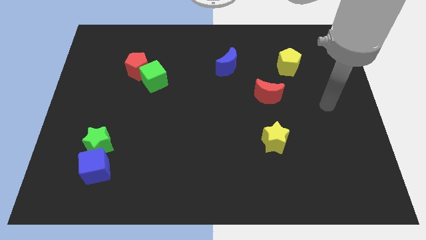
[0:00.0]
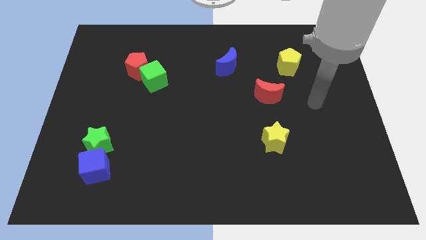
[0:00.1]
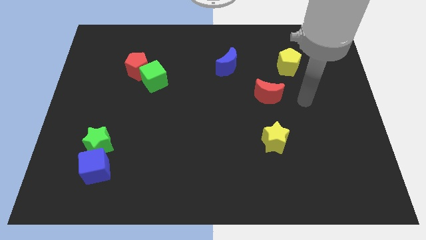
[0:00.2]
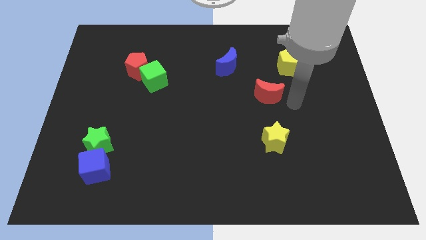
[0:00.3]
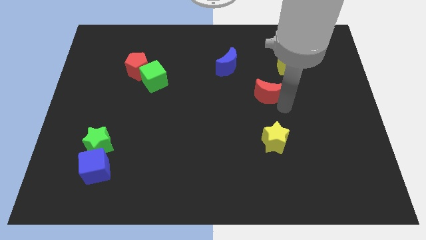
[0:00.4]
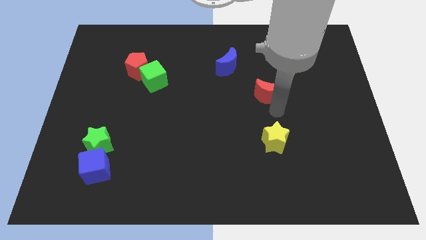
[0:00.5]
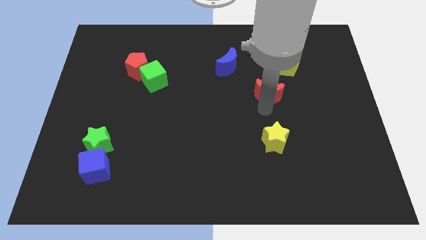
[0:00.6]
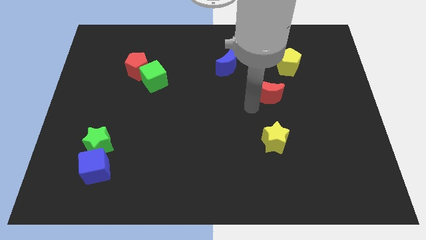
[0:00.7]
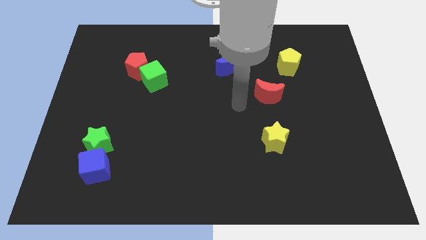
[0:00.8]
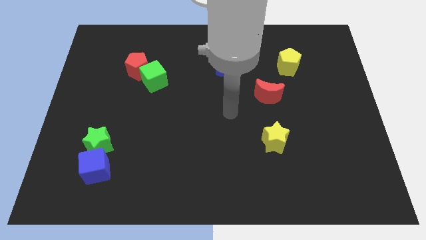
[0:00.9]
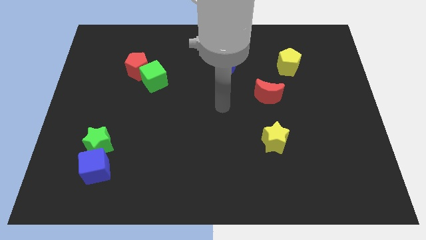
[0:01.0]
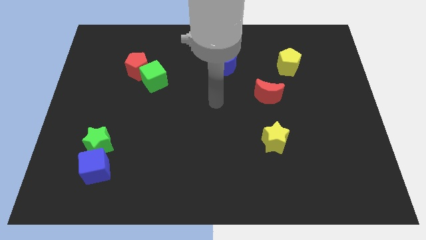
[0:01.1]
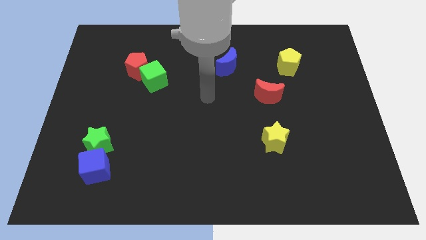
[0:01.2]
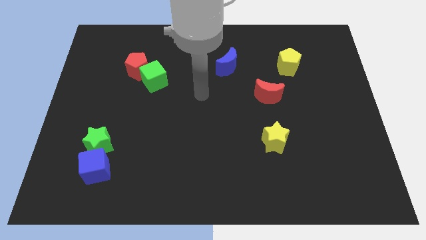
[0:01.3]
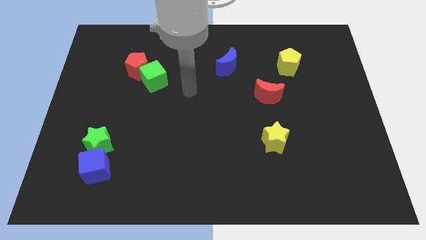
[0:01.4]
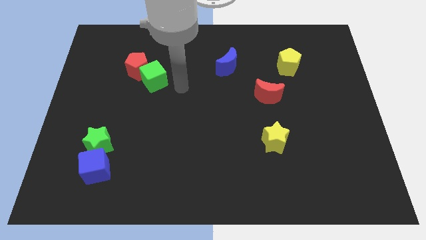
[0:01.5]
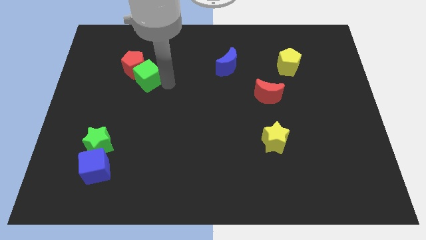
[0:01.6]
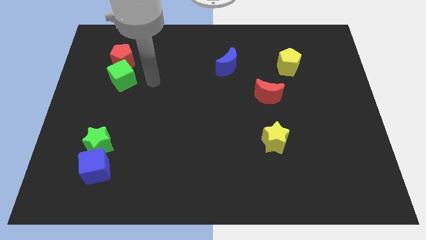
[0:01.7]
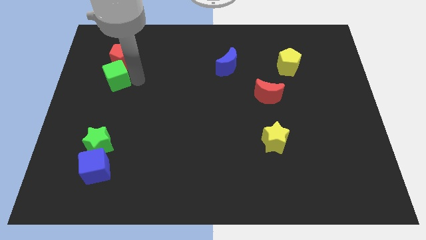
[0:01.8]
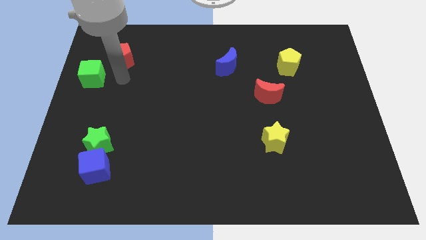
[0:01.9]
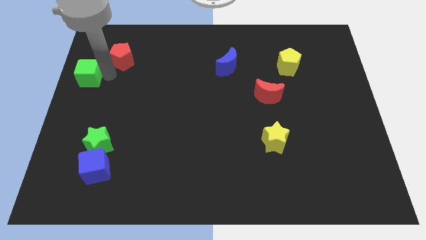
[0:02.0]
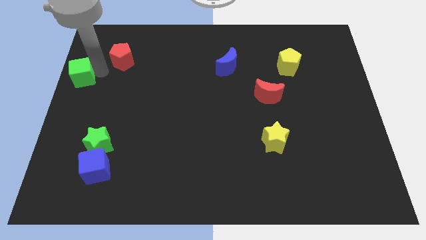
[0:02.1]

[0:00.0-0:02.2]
move the red pentagon away from the green cube

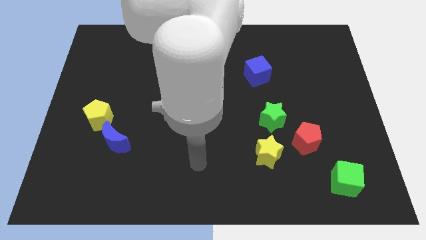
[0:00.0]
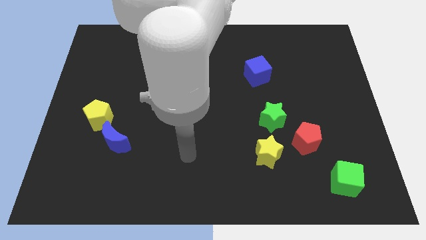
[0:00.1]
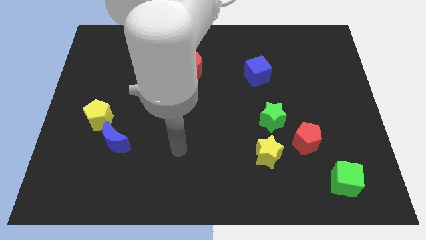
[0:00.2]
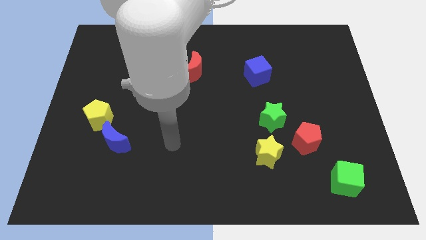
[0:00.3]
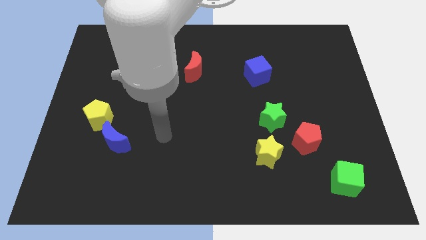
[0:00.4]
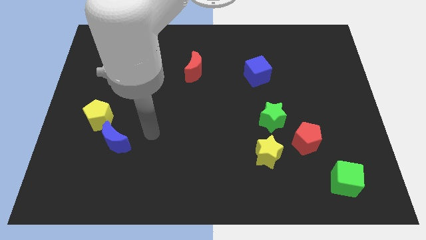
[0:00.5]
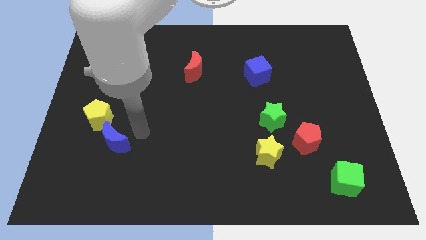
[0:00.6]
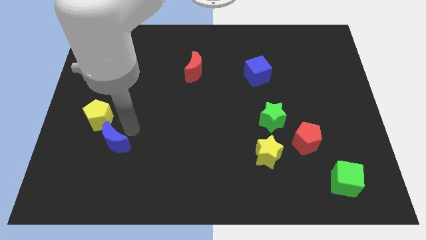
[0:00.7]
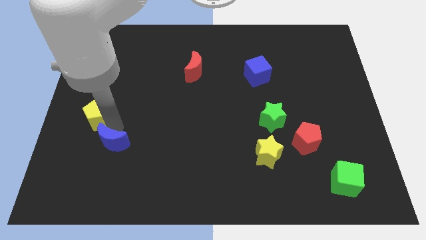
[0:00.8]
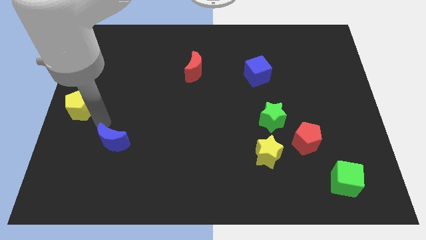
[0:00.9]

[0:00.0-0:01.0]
pull the blue moon apart from the yellow pentagon

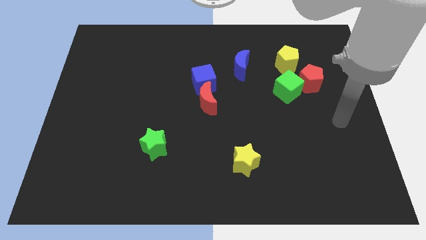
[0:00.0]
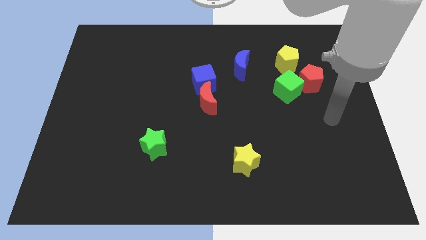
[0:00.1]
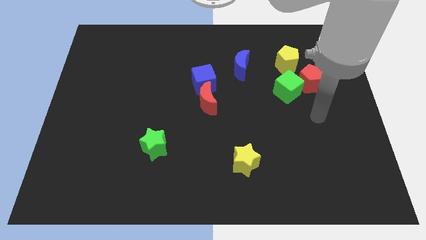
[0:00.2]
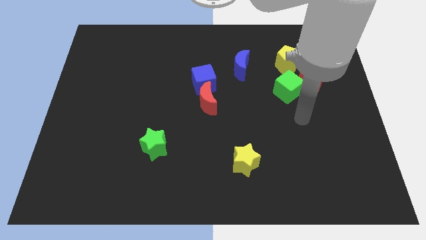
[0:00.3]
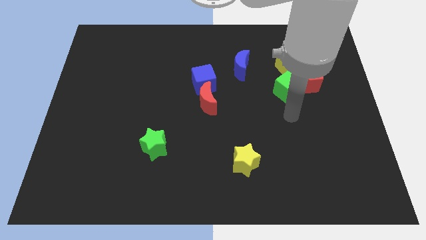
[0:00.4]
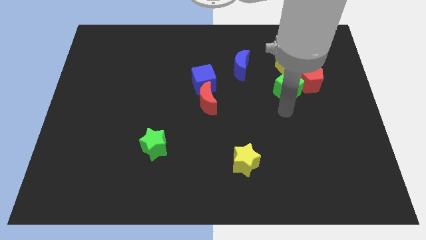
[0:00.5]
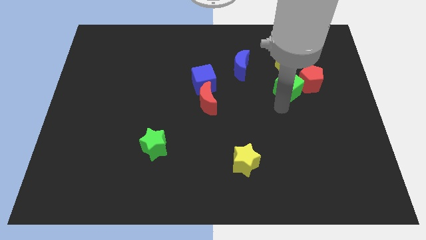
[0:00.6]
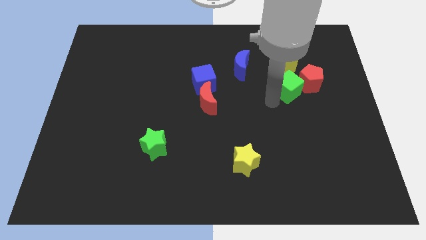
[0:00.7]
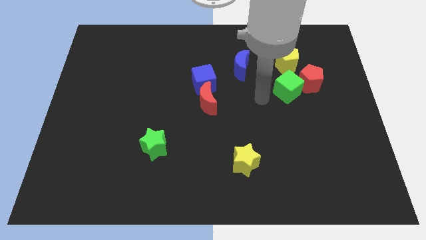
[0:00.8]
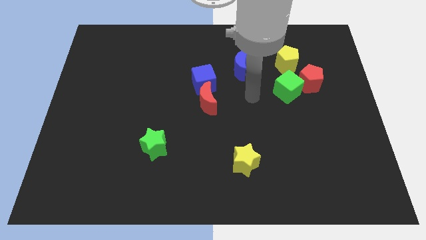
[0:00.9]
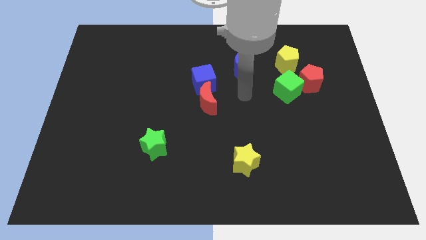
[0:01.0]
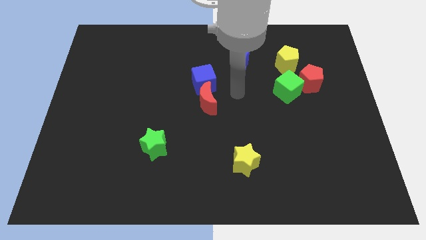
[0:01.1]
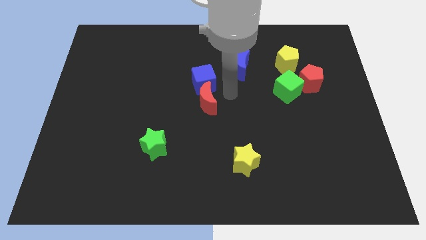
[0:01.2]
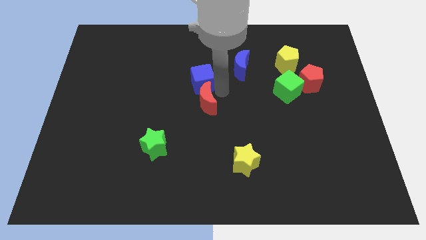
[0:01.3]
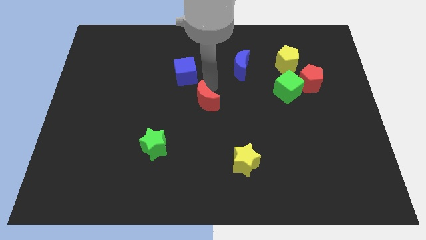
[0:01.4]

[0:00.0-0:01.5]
separate the red moon from the blue cube

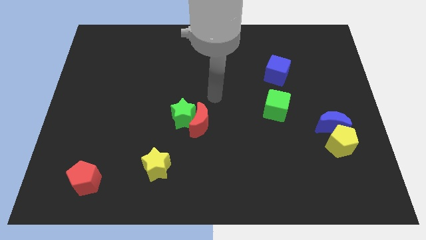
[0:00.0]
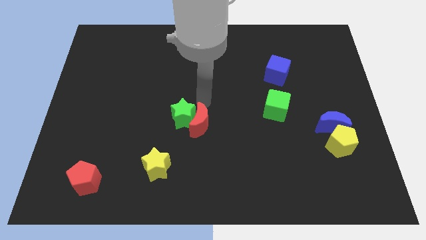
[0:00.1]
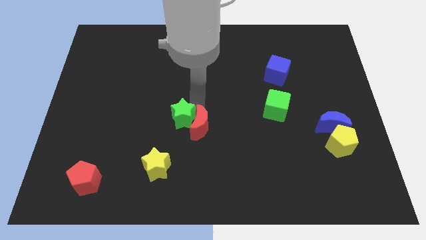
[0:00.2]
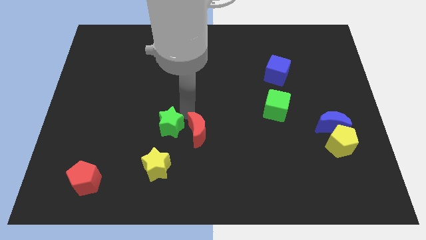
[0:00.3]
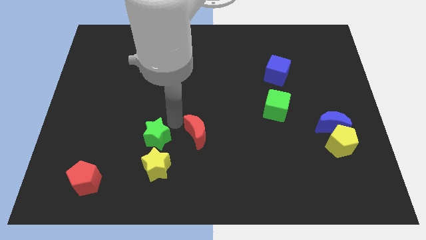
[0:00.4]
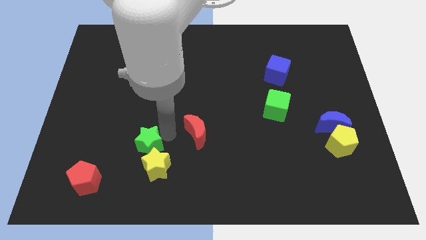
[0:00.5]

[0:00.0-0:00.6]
separate the red moon from the green star

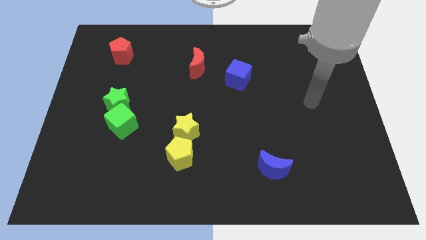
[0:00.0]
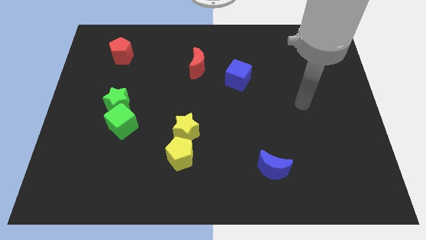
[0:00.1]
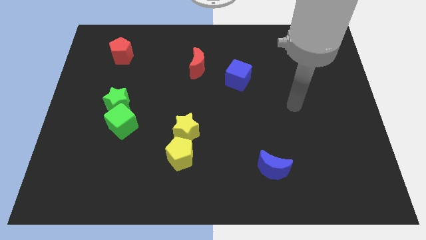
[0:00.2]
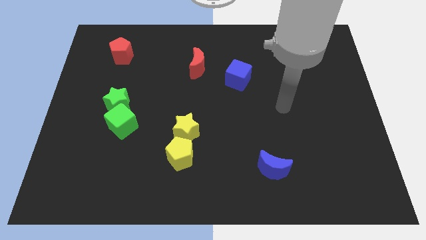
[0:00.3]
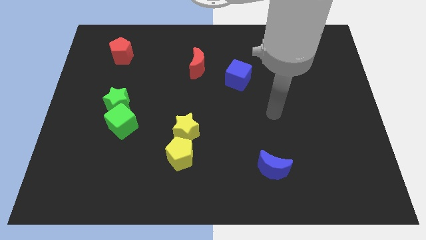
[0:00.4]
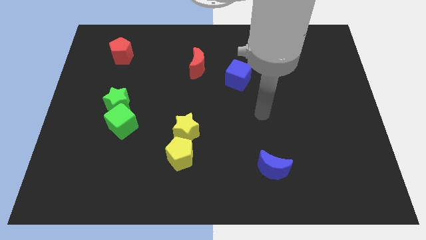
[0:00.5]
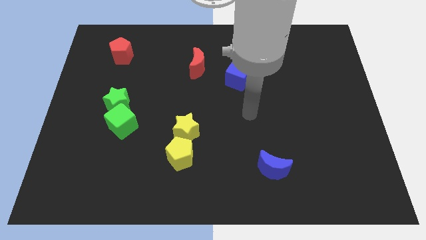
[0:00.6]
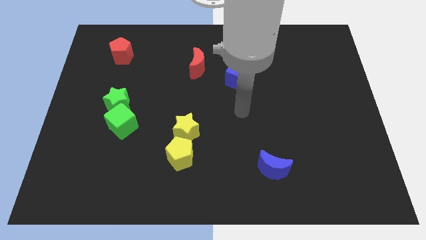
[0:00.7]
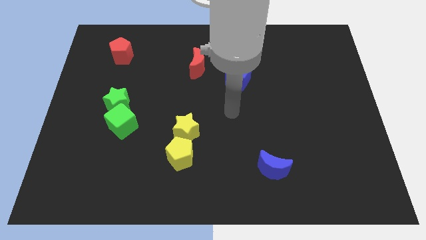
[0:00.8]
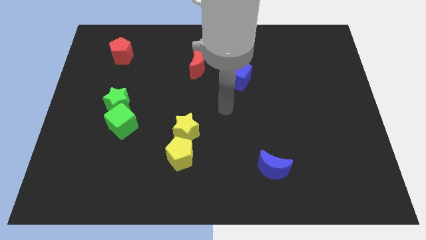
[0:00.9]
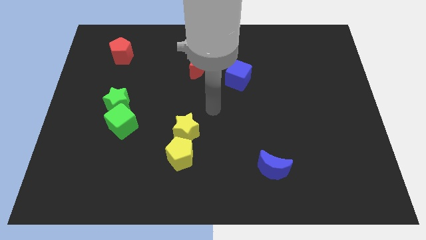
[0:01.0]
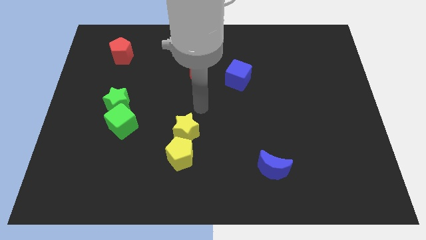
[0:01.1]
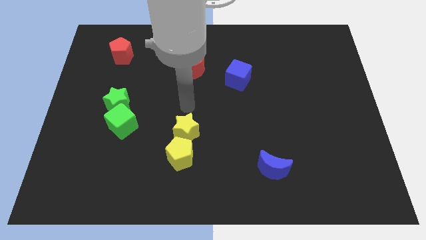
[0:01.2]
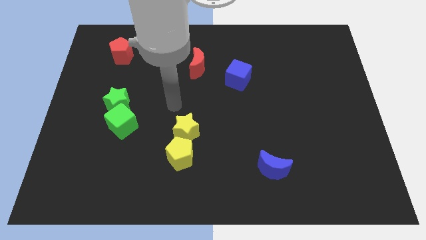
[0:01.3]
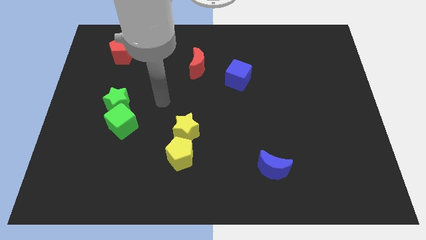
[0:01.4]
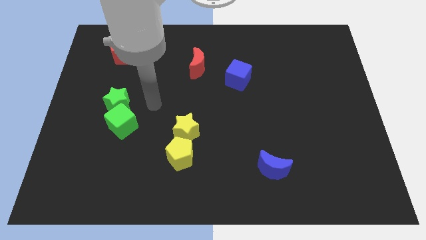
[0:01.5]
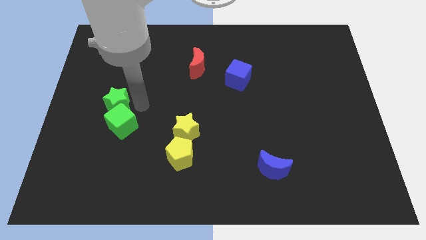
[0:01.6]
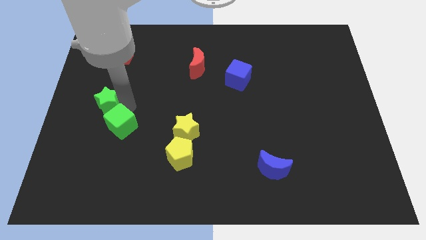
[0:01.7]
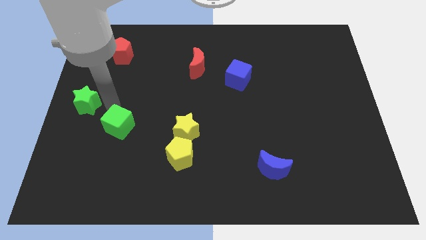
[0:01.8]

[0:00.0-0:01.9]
separate the green cube from the green star

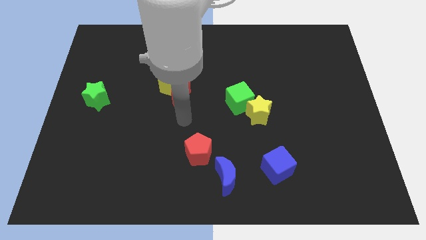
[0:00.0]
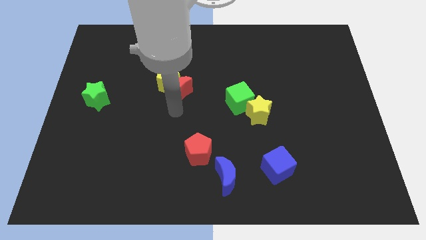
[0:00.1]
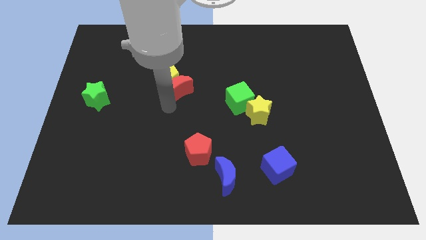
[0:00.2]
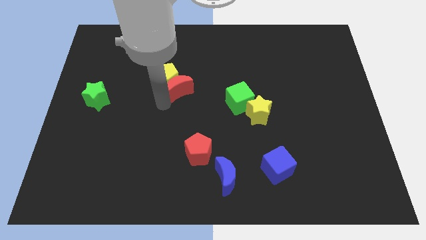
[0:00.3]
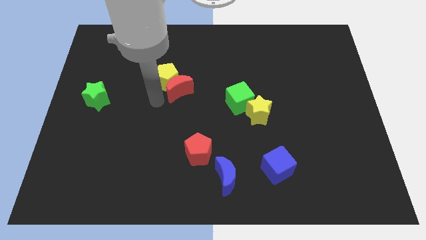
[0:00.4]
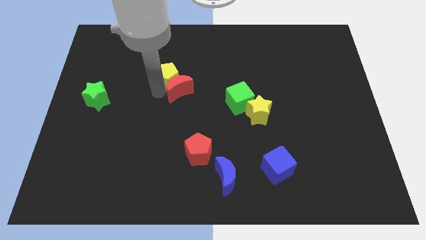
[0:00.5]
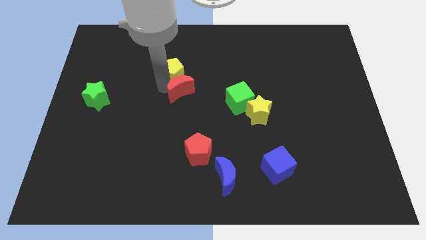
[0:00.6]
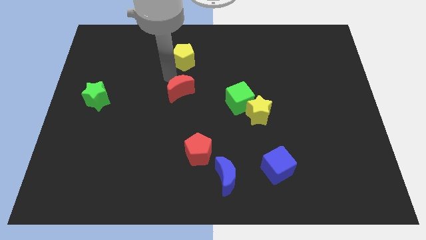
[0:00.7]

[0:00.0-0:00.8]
pull the red moon apart from the yellow pentagon

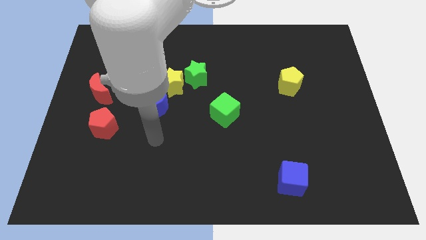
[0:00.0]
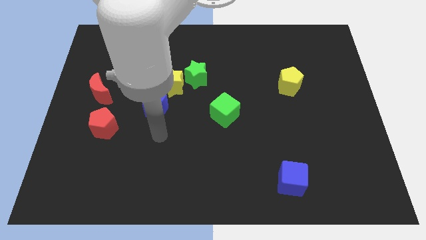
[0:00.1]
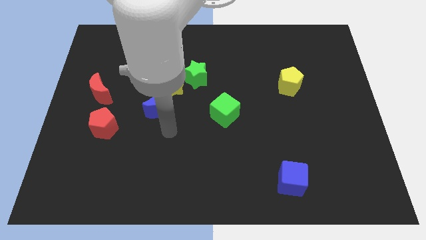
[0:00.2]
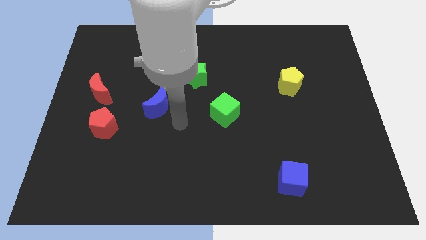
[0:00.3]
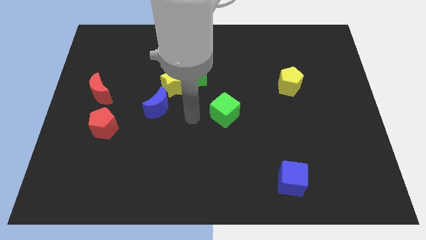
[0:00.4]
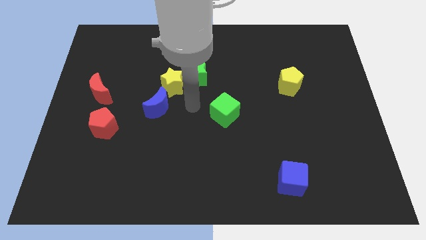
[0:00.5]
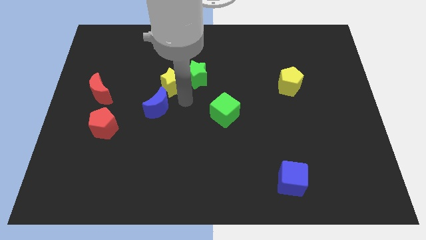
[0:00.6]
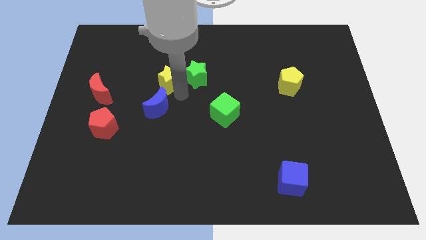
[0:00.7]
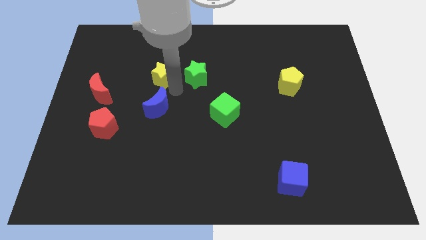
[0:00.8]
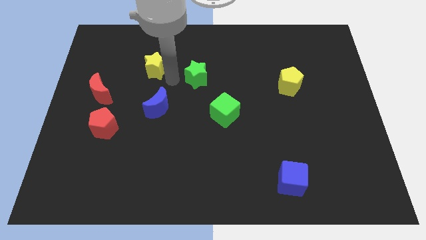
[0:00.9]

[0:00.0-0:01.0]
pull the green star apart from the yellow star

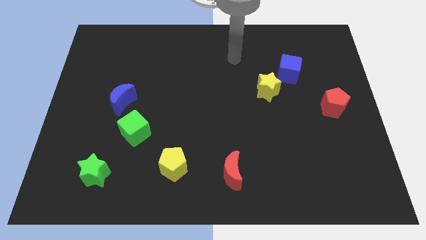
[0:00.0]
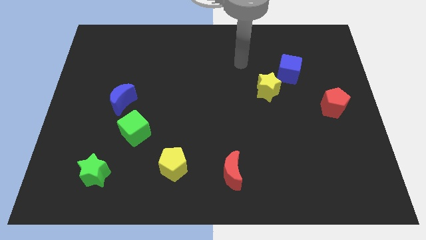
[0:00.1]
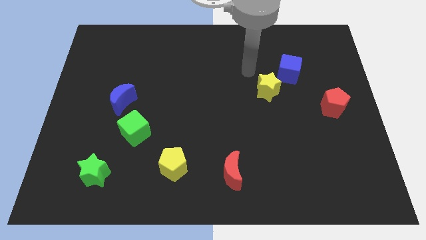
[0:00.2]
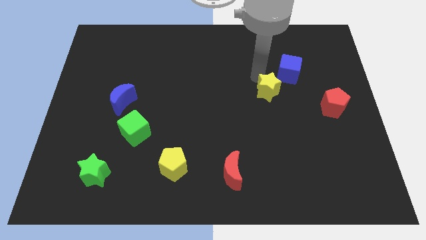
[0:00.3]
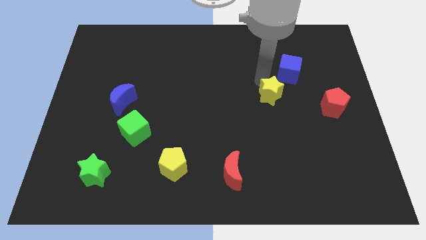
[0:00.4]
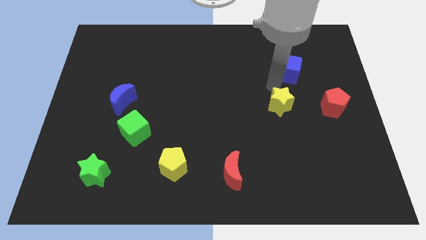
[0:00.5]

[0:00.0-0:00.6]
separate the blue cube from the yellow star
